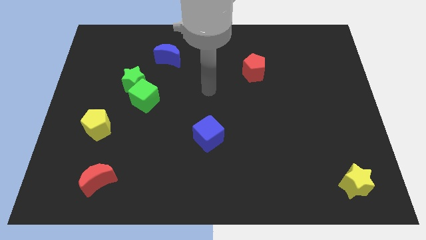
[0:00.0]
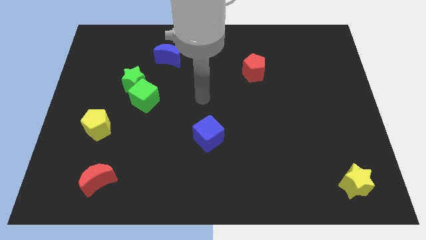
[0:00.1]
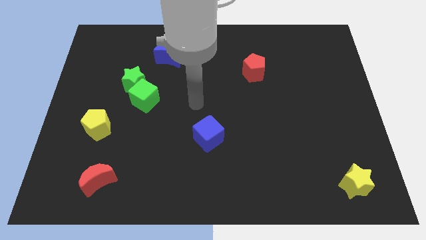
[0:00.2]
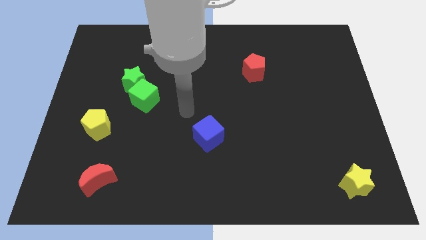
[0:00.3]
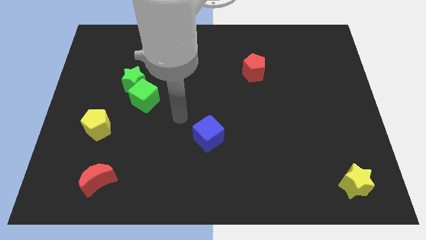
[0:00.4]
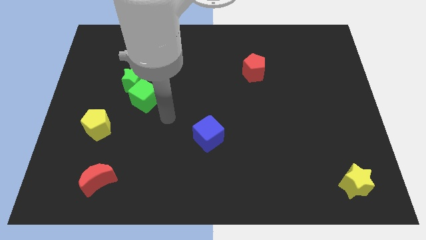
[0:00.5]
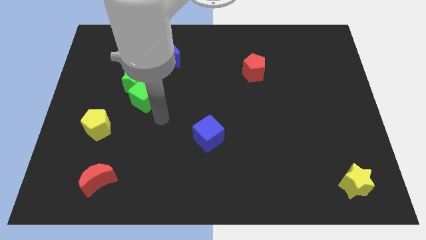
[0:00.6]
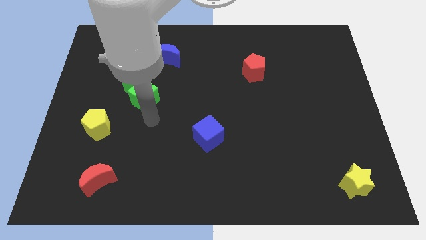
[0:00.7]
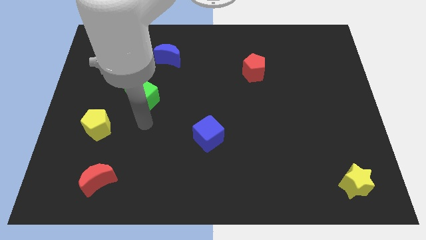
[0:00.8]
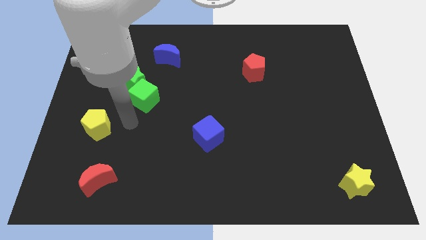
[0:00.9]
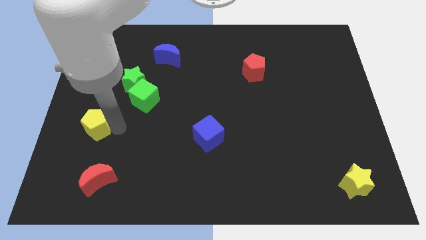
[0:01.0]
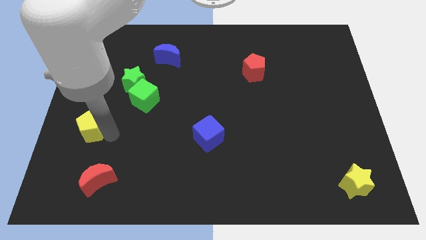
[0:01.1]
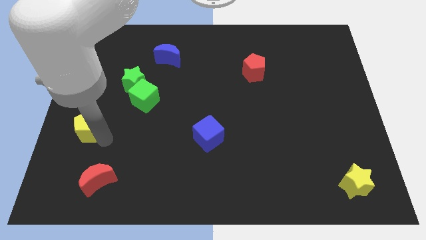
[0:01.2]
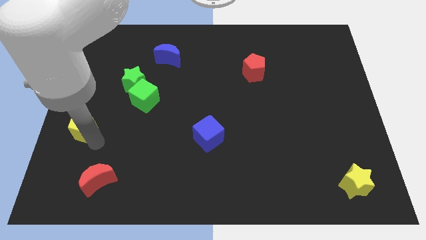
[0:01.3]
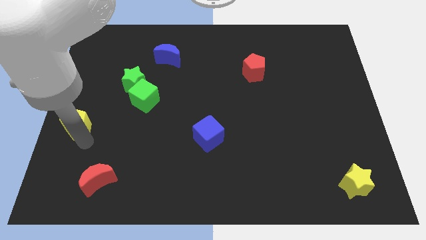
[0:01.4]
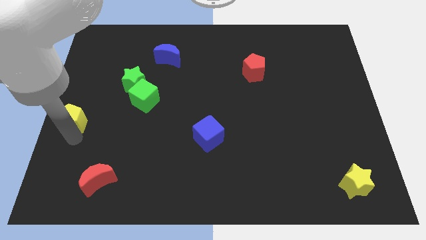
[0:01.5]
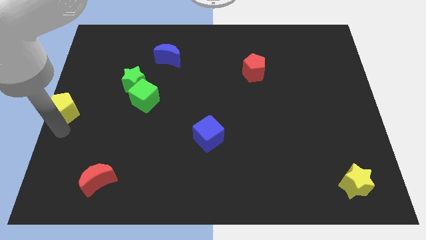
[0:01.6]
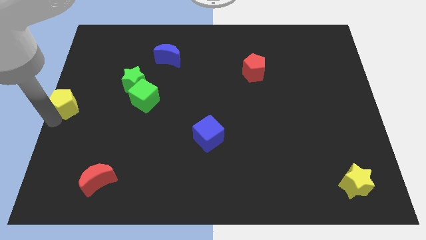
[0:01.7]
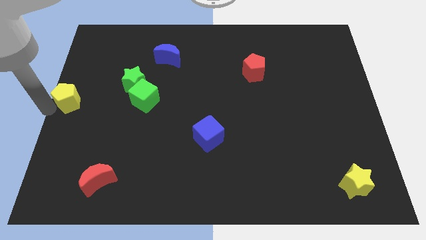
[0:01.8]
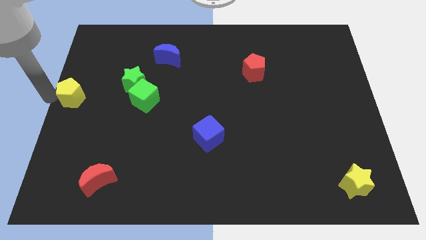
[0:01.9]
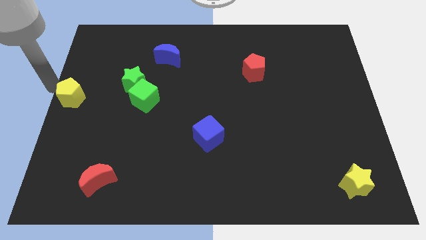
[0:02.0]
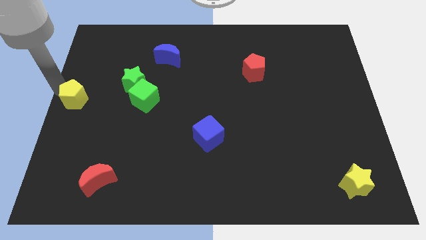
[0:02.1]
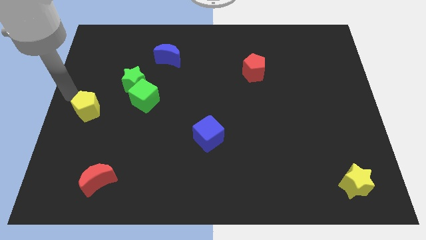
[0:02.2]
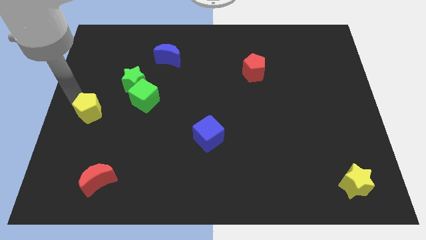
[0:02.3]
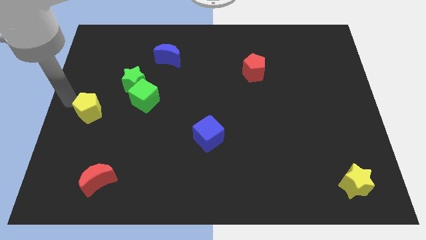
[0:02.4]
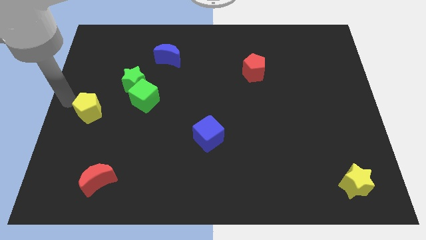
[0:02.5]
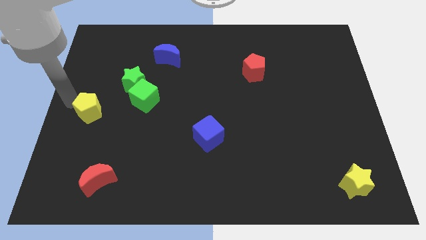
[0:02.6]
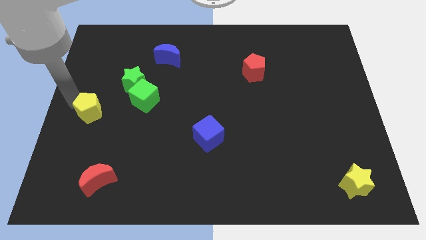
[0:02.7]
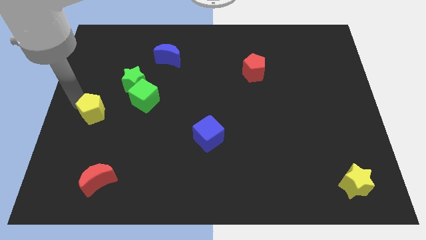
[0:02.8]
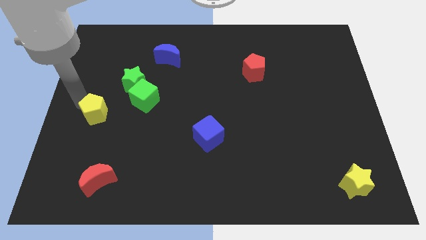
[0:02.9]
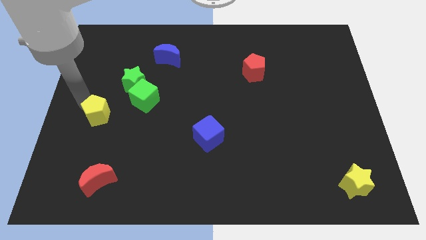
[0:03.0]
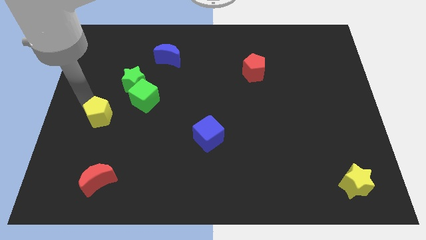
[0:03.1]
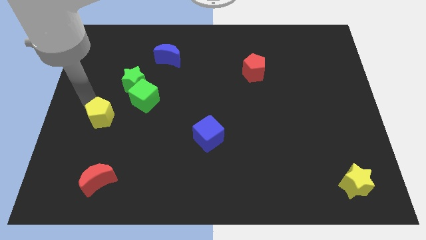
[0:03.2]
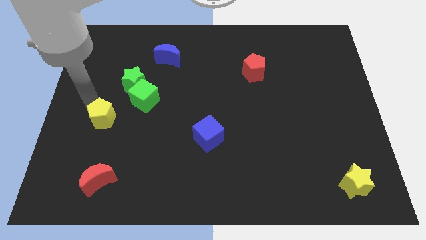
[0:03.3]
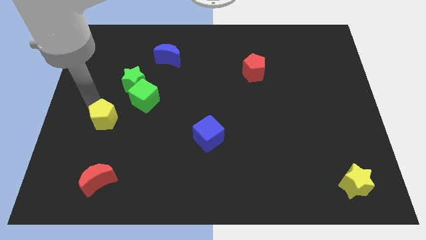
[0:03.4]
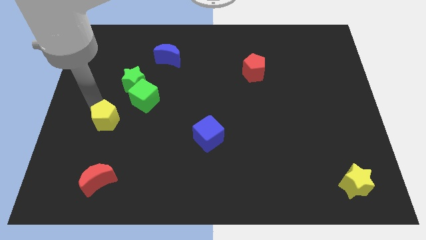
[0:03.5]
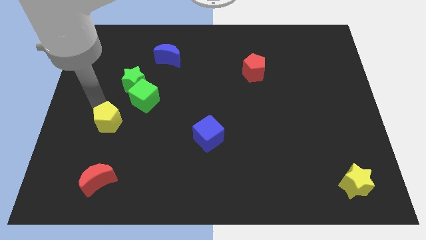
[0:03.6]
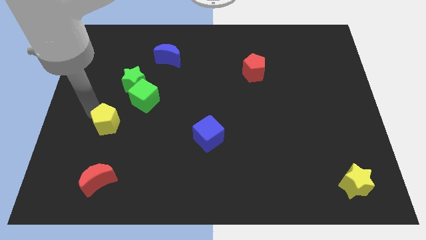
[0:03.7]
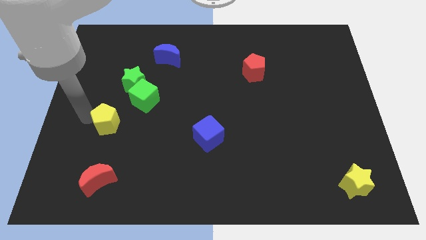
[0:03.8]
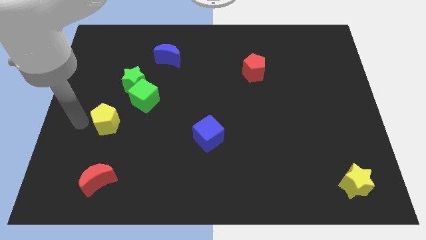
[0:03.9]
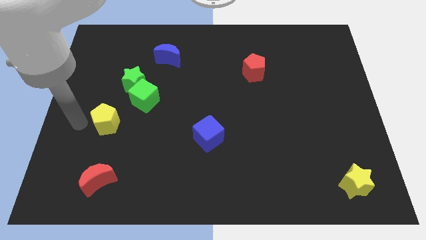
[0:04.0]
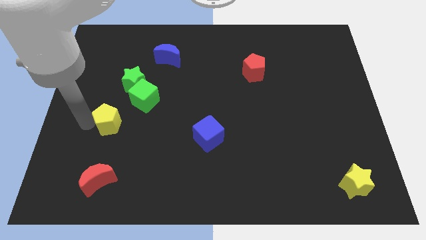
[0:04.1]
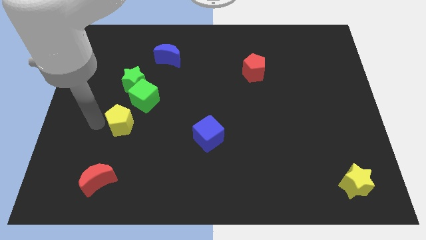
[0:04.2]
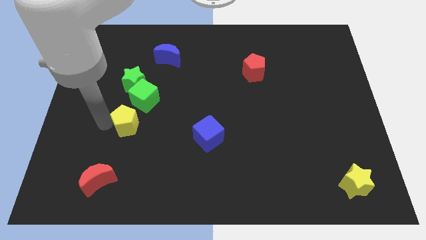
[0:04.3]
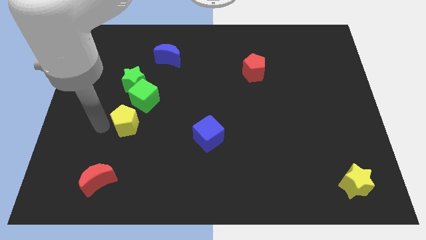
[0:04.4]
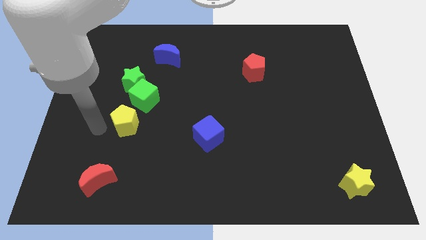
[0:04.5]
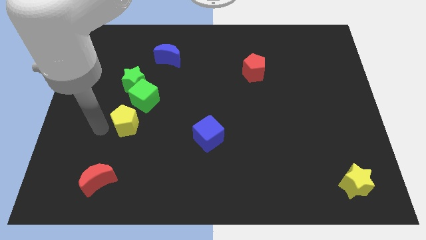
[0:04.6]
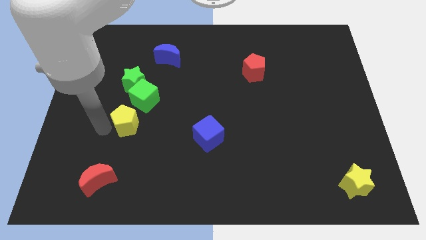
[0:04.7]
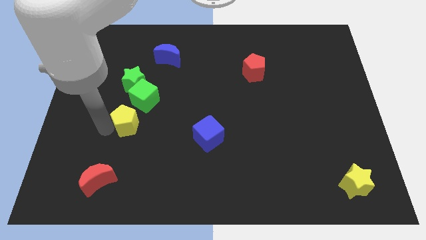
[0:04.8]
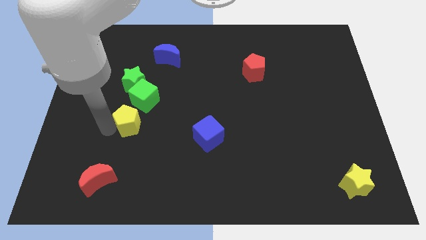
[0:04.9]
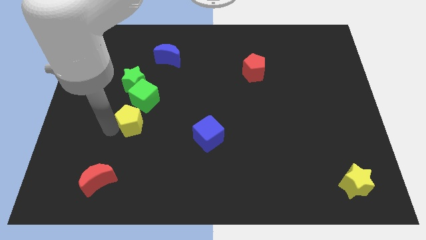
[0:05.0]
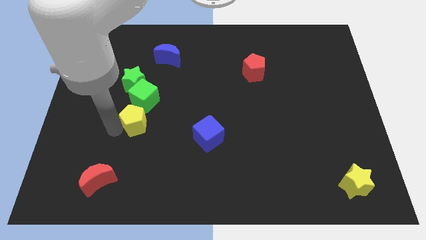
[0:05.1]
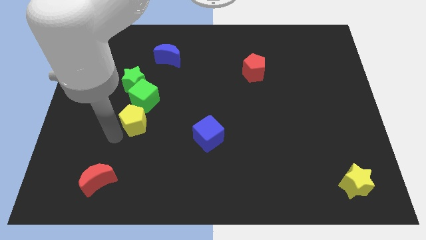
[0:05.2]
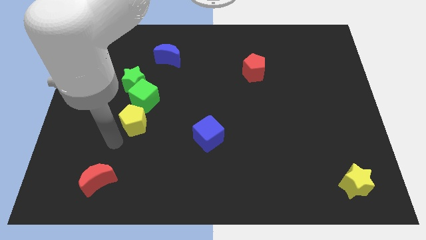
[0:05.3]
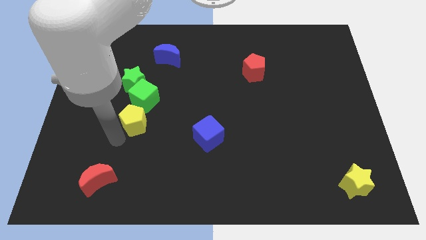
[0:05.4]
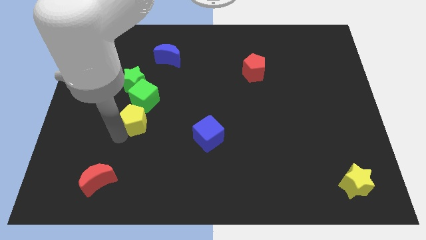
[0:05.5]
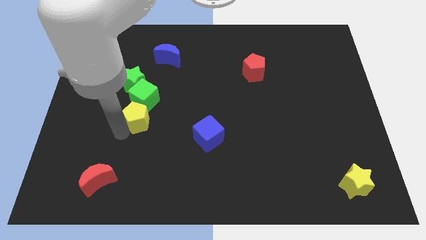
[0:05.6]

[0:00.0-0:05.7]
slightly move the yellow pentagon diagonally upwards and right

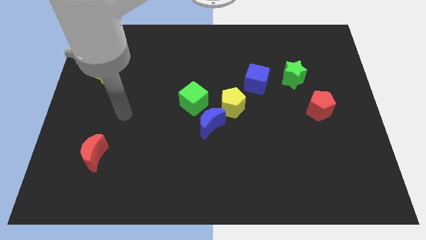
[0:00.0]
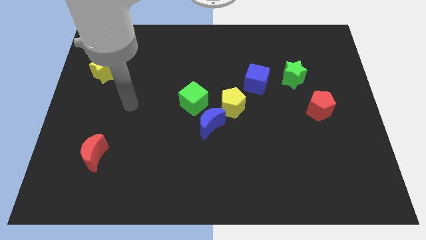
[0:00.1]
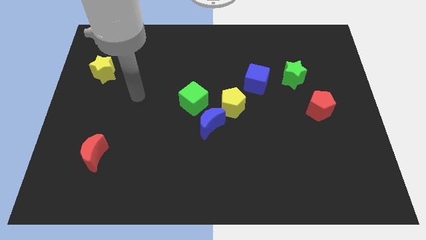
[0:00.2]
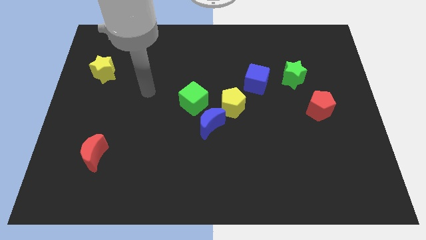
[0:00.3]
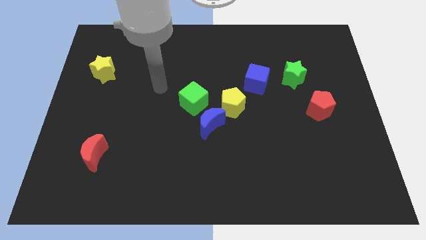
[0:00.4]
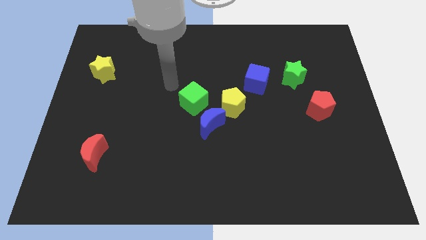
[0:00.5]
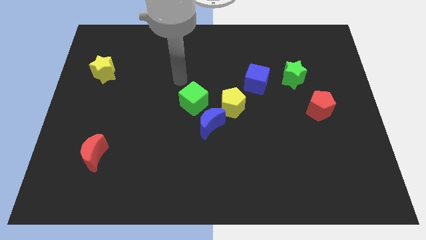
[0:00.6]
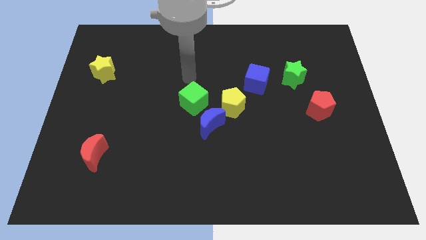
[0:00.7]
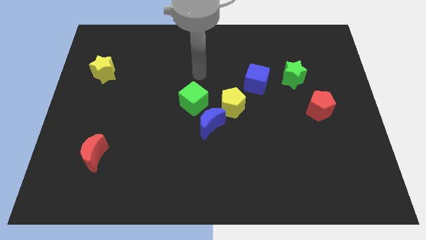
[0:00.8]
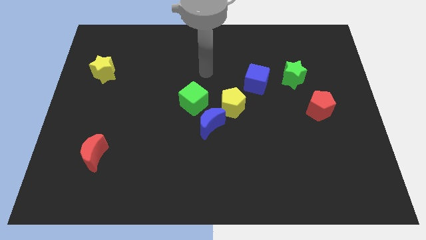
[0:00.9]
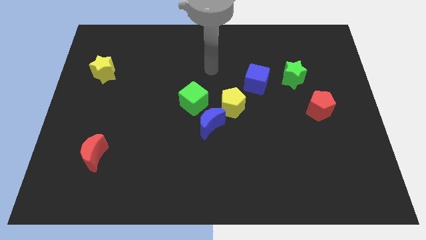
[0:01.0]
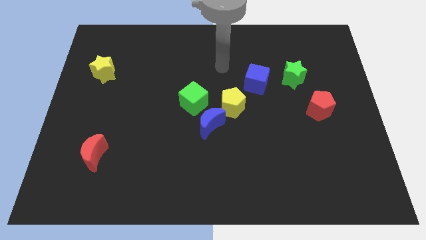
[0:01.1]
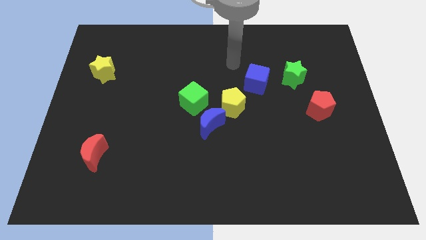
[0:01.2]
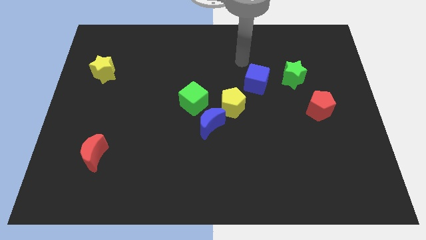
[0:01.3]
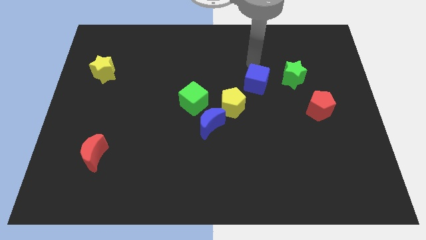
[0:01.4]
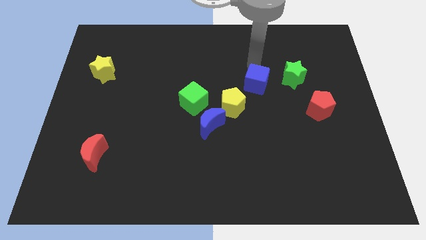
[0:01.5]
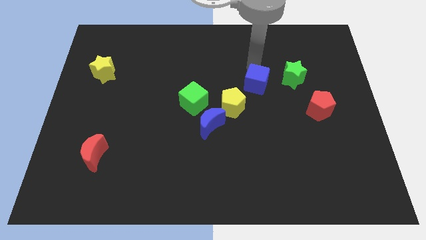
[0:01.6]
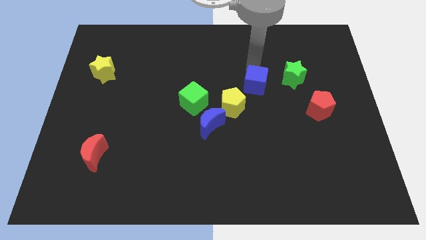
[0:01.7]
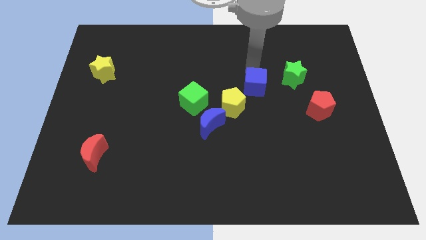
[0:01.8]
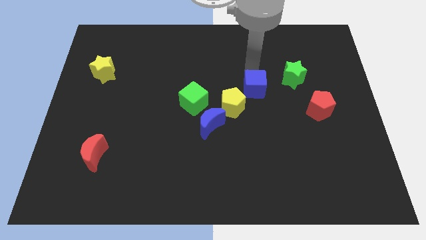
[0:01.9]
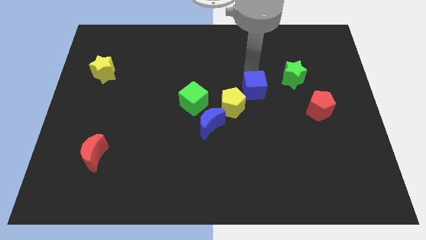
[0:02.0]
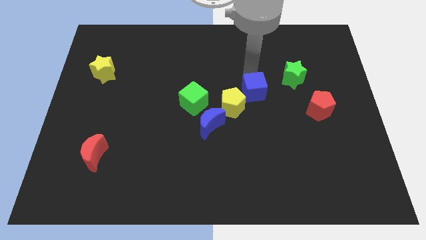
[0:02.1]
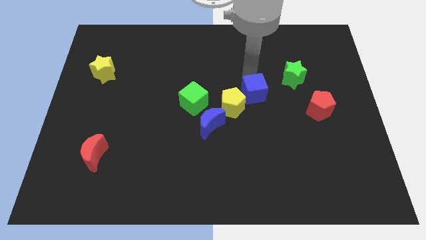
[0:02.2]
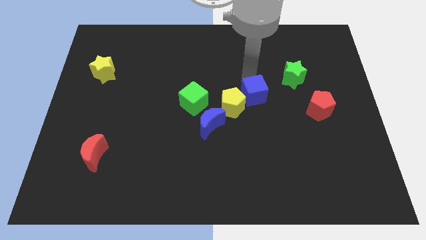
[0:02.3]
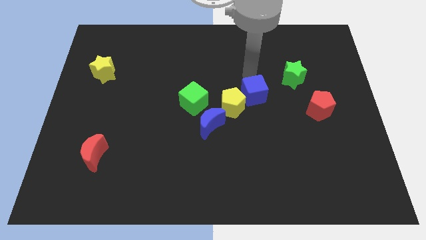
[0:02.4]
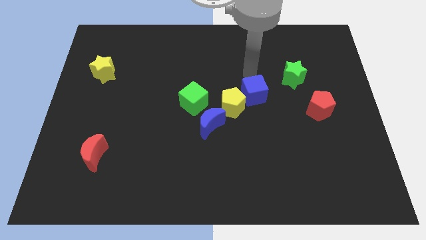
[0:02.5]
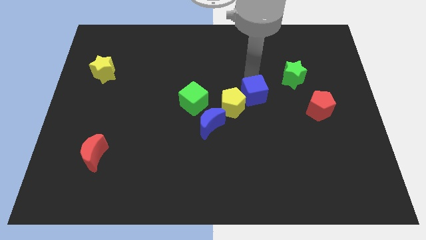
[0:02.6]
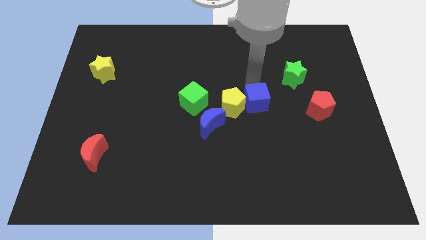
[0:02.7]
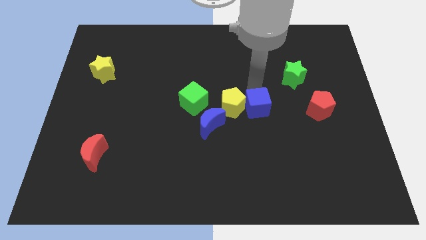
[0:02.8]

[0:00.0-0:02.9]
push the blue cube a little downwards
